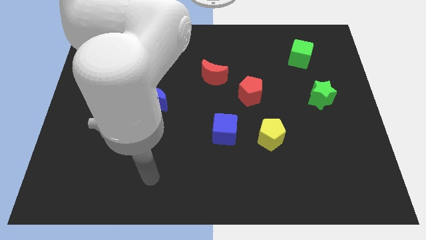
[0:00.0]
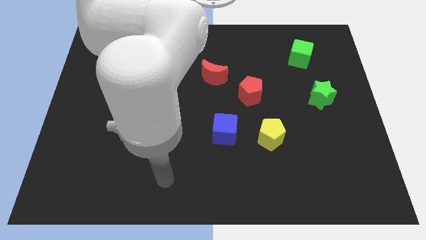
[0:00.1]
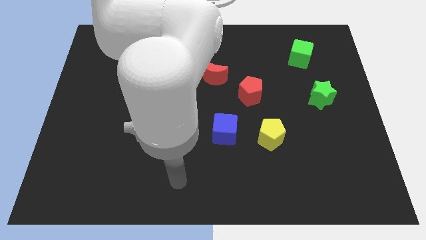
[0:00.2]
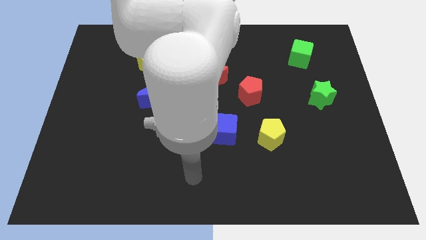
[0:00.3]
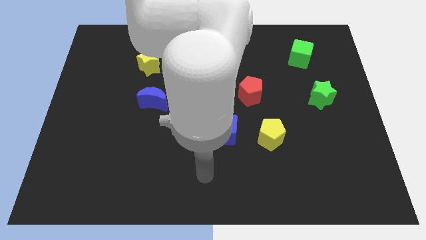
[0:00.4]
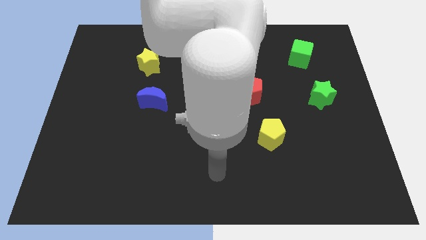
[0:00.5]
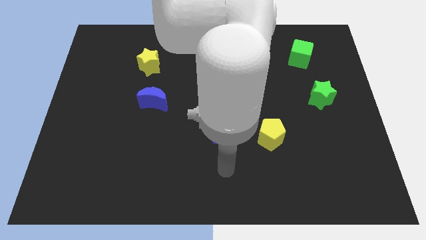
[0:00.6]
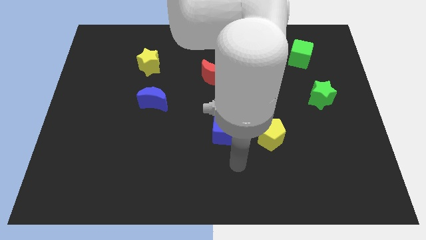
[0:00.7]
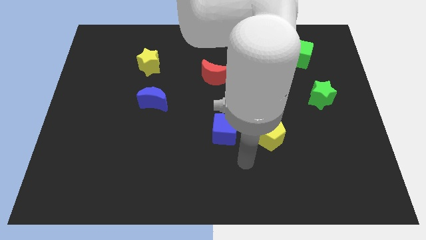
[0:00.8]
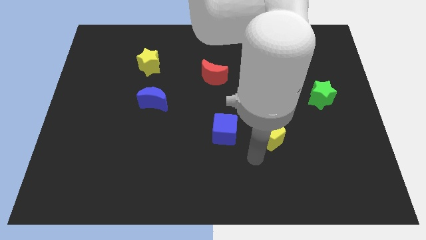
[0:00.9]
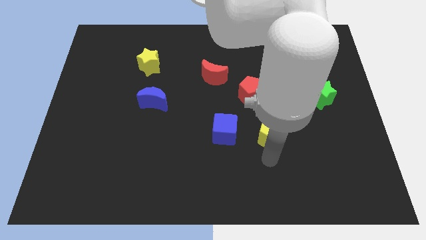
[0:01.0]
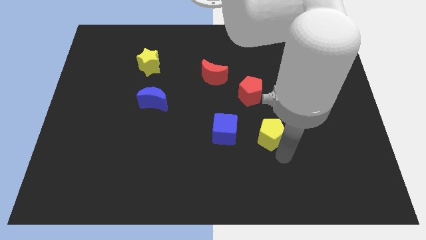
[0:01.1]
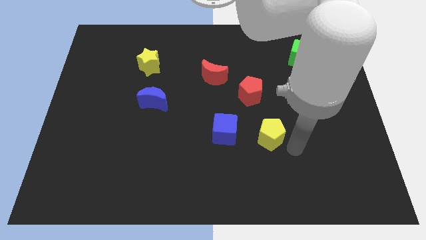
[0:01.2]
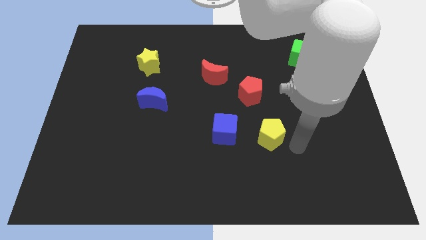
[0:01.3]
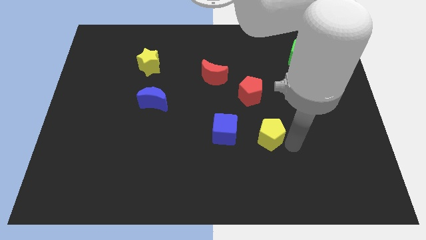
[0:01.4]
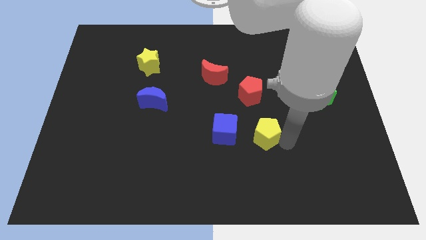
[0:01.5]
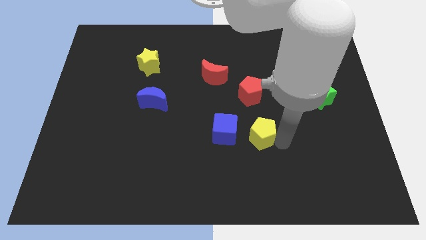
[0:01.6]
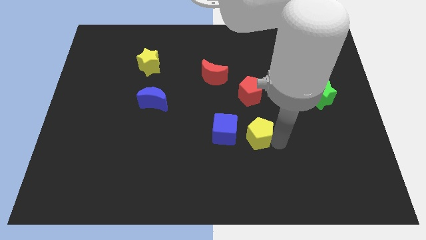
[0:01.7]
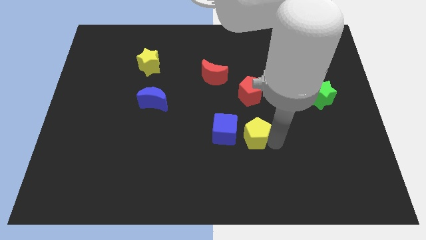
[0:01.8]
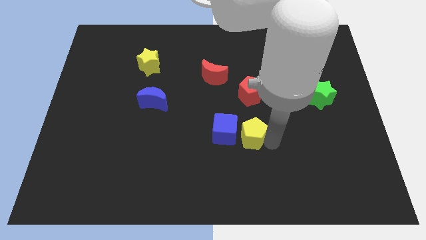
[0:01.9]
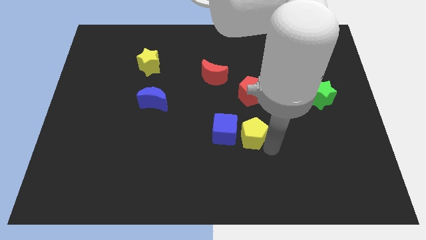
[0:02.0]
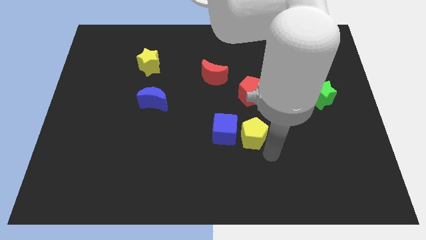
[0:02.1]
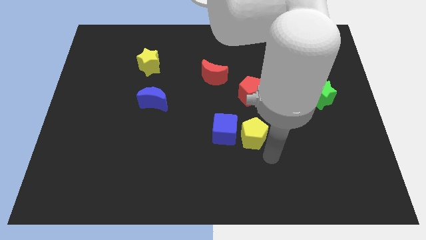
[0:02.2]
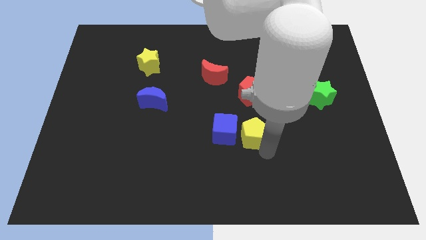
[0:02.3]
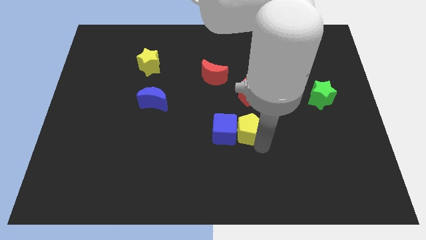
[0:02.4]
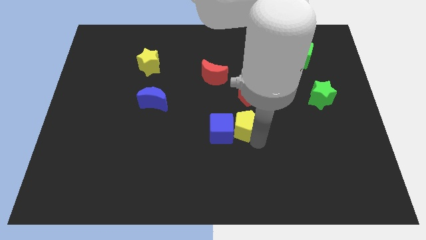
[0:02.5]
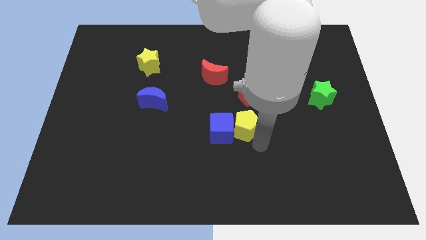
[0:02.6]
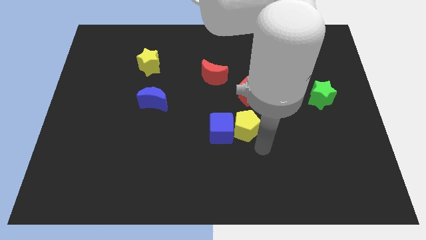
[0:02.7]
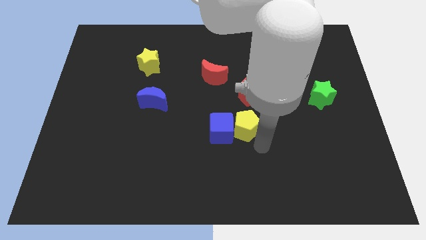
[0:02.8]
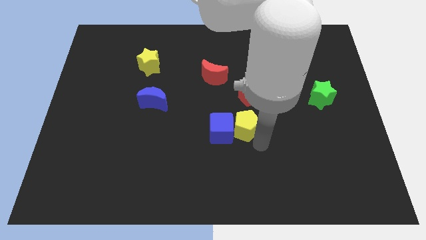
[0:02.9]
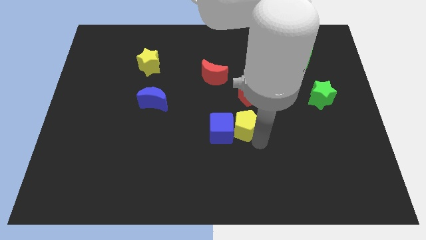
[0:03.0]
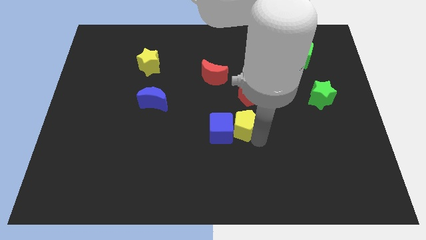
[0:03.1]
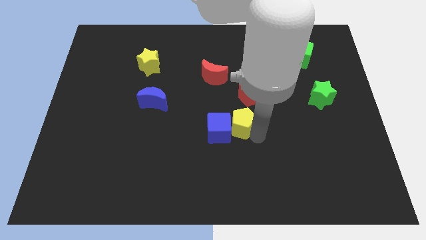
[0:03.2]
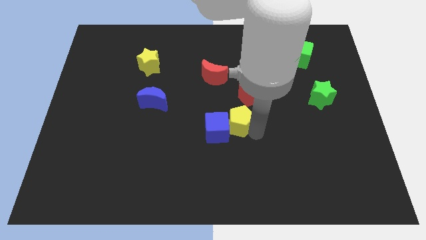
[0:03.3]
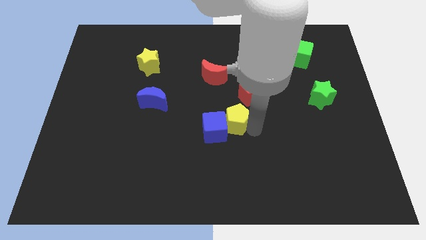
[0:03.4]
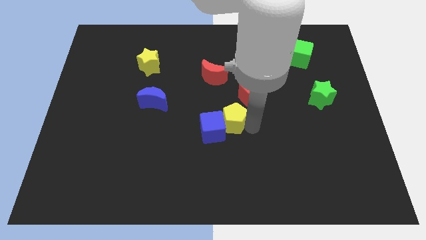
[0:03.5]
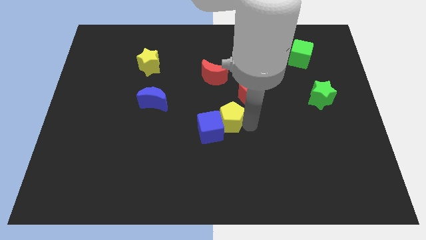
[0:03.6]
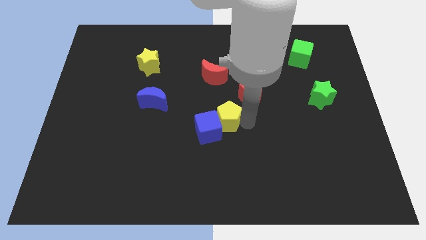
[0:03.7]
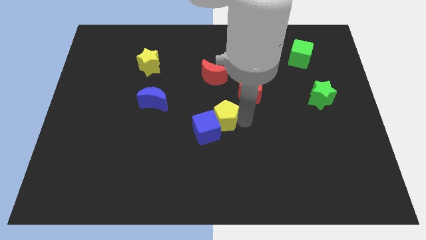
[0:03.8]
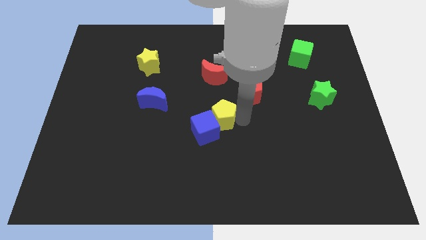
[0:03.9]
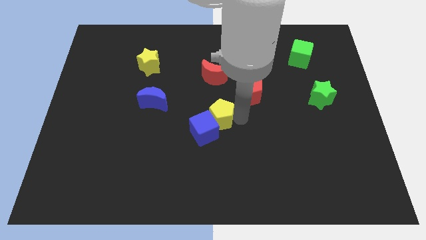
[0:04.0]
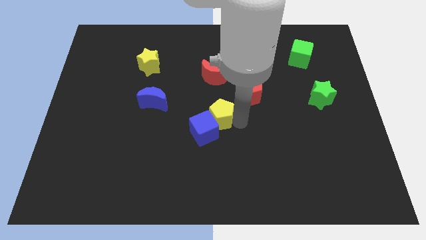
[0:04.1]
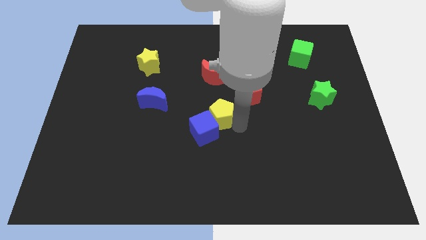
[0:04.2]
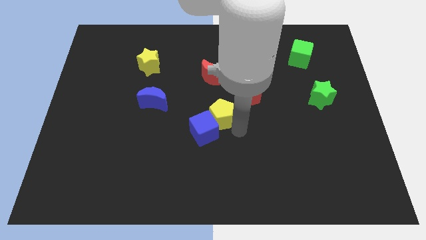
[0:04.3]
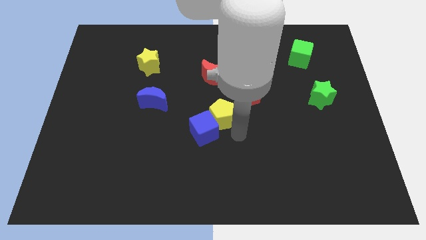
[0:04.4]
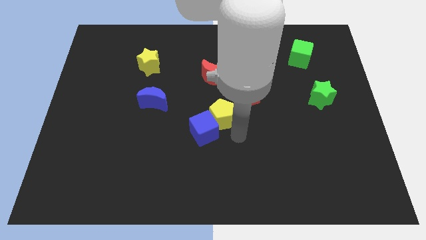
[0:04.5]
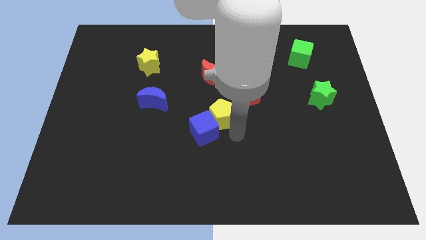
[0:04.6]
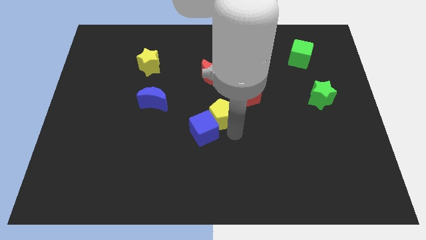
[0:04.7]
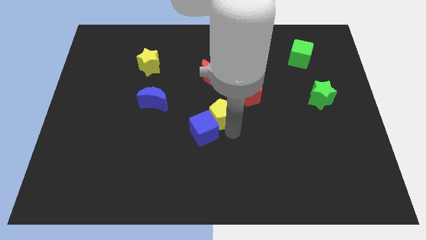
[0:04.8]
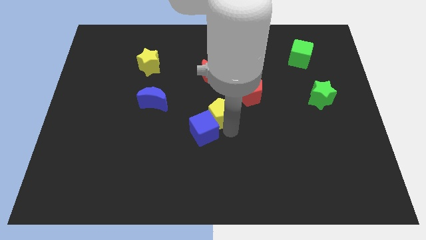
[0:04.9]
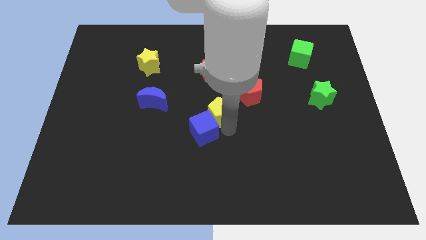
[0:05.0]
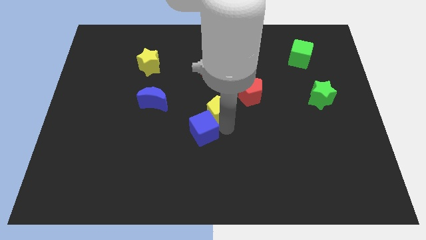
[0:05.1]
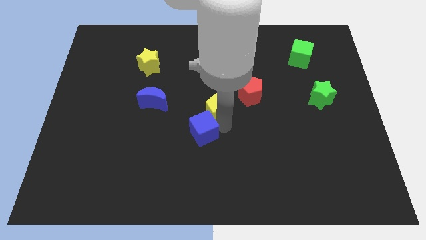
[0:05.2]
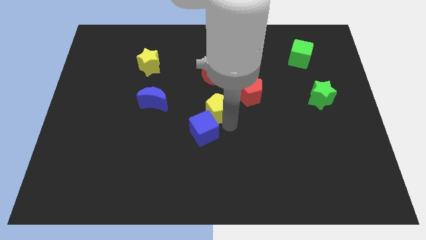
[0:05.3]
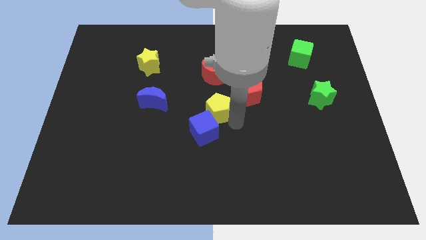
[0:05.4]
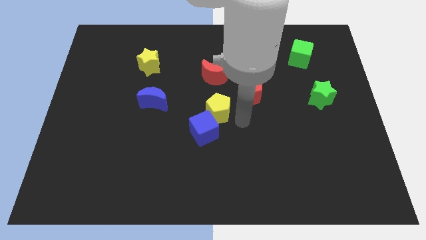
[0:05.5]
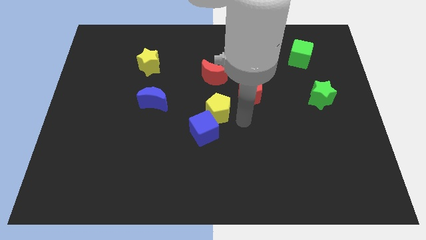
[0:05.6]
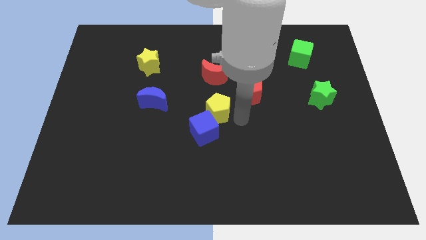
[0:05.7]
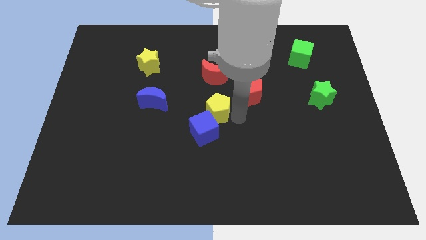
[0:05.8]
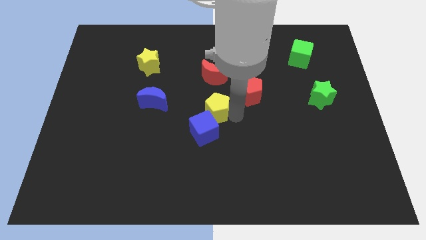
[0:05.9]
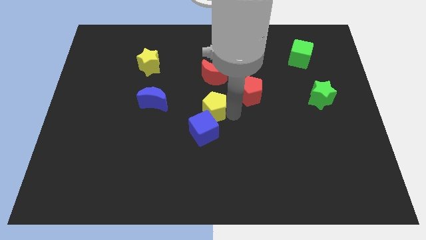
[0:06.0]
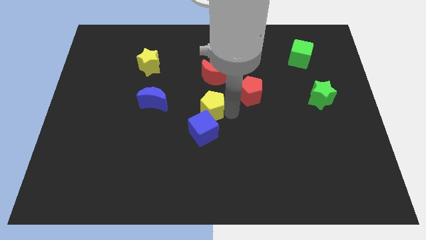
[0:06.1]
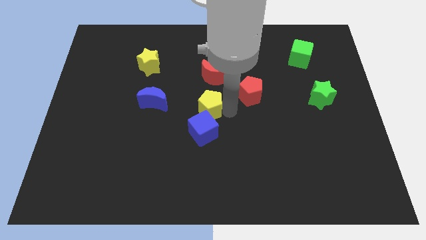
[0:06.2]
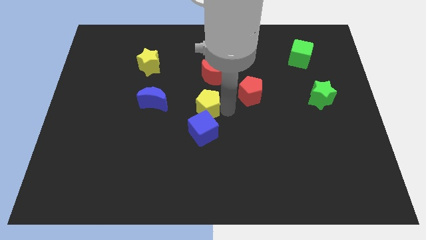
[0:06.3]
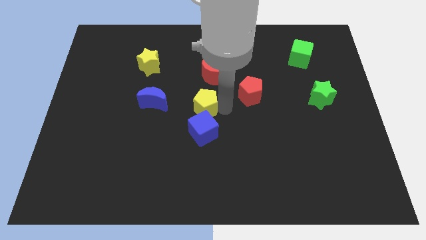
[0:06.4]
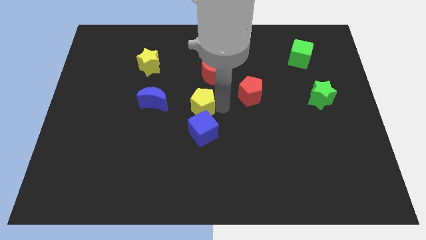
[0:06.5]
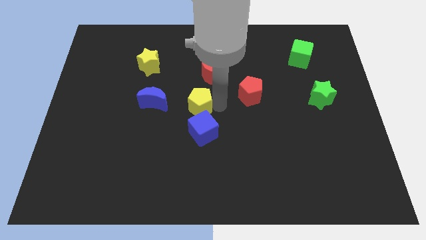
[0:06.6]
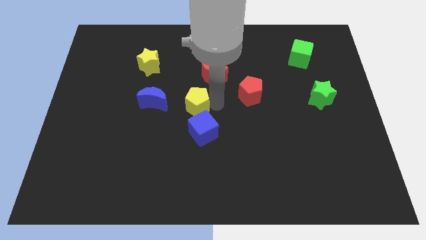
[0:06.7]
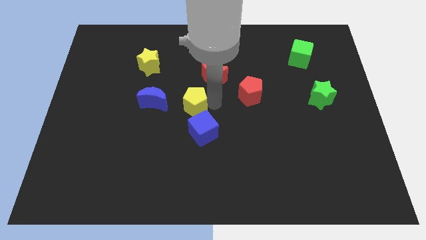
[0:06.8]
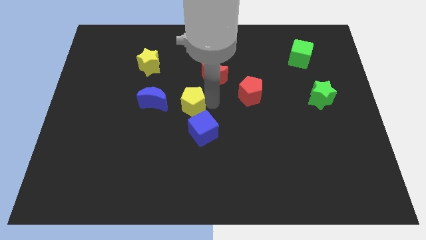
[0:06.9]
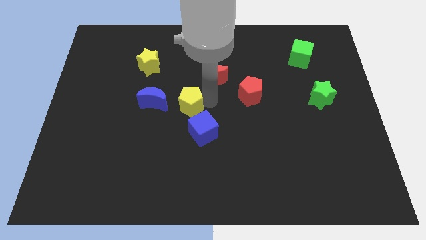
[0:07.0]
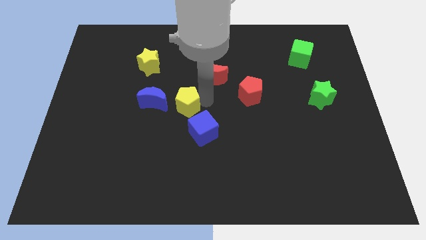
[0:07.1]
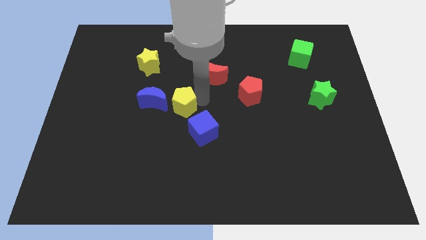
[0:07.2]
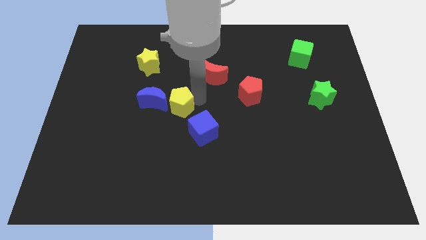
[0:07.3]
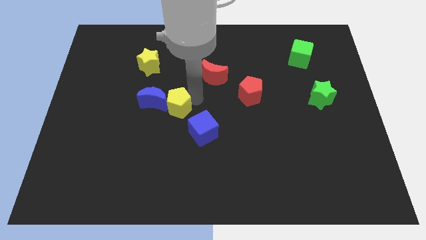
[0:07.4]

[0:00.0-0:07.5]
move the yellow pentagon to the blue moon
